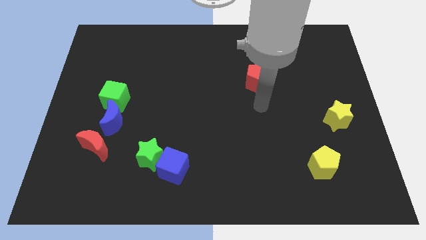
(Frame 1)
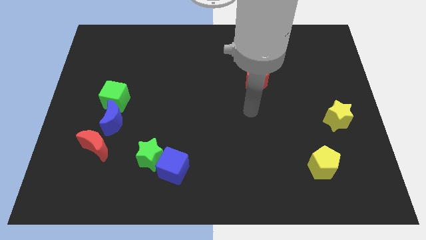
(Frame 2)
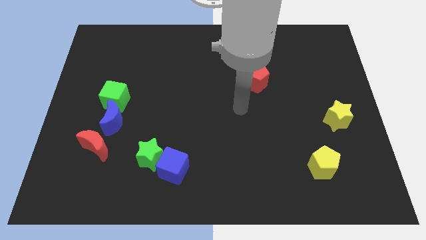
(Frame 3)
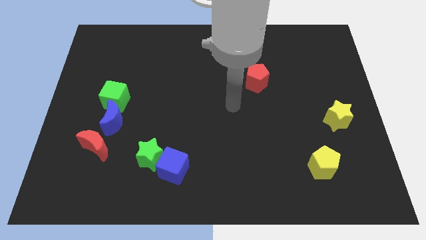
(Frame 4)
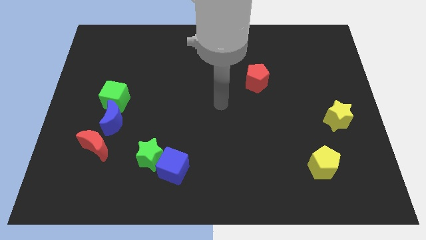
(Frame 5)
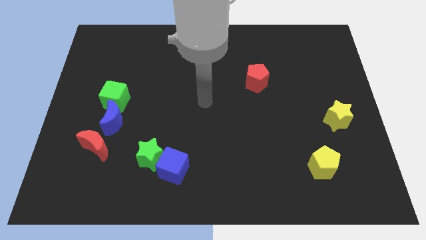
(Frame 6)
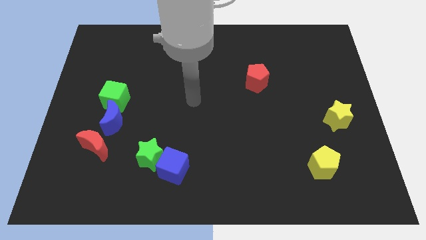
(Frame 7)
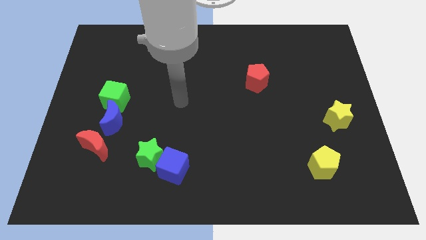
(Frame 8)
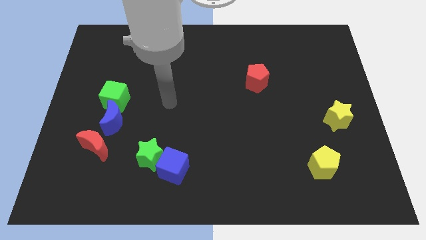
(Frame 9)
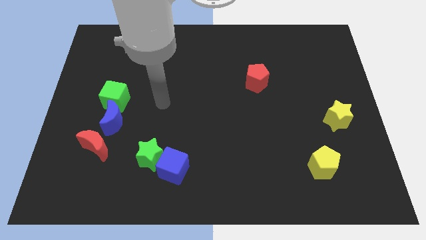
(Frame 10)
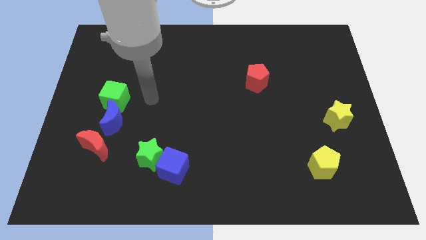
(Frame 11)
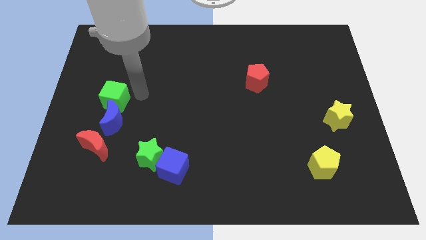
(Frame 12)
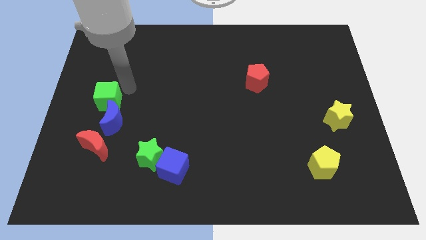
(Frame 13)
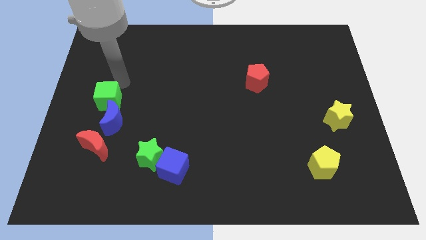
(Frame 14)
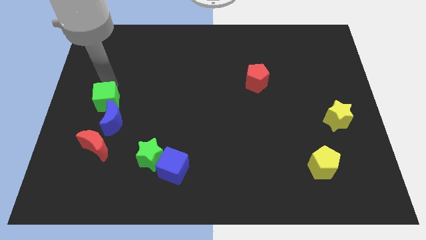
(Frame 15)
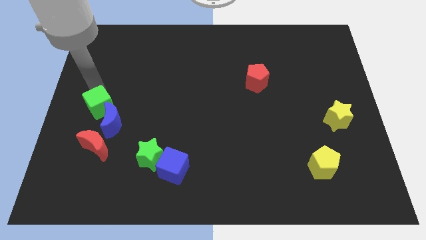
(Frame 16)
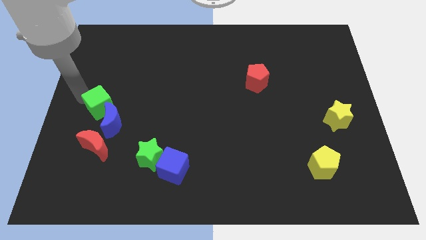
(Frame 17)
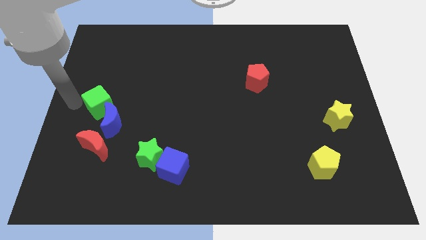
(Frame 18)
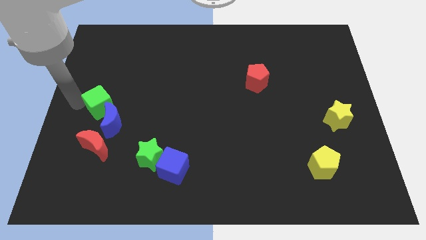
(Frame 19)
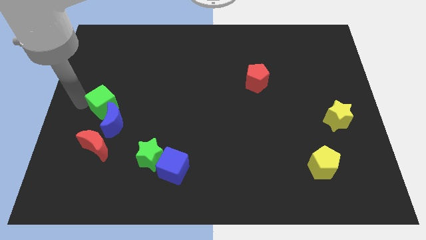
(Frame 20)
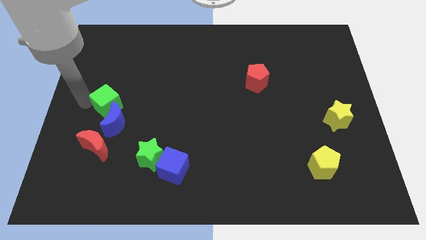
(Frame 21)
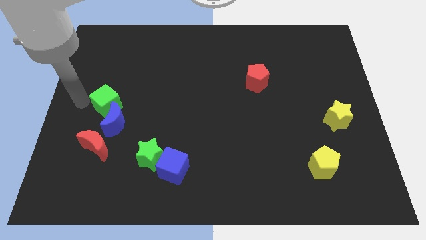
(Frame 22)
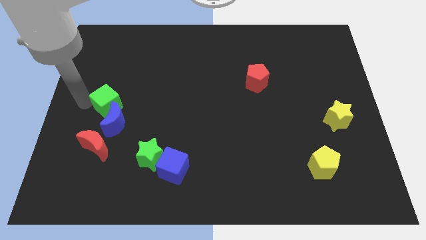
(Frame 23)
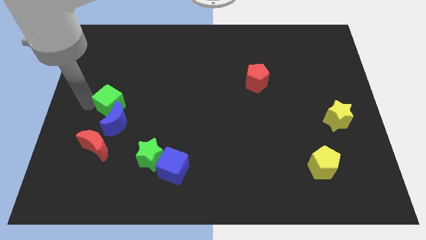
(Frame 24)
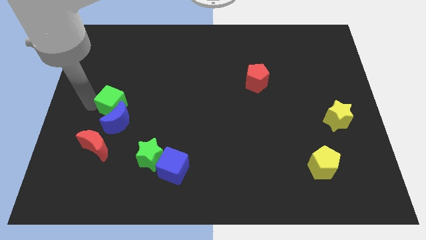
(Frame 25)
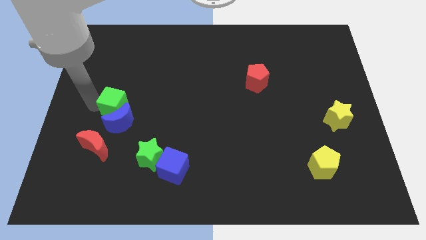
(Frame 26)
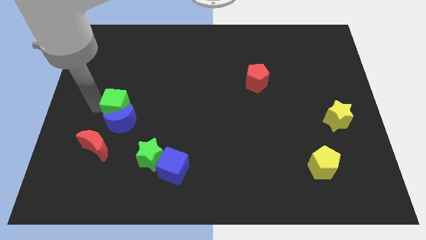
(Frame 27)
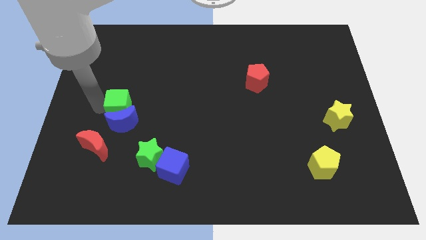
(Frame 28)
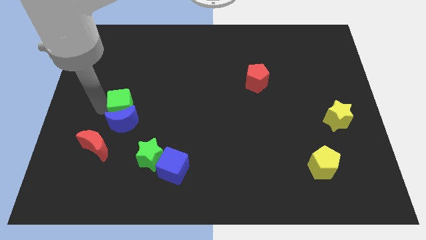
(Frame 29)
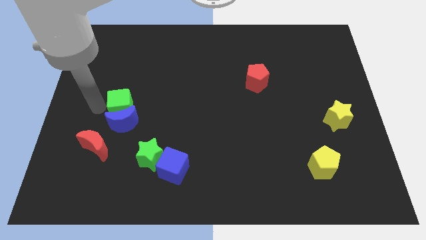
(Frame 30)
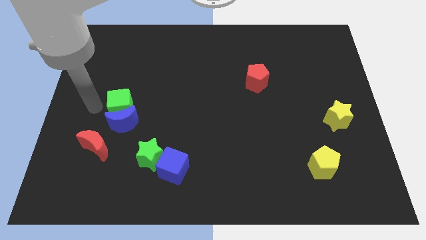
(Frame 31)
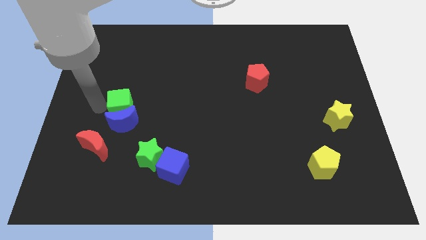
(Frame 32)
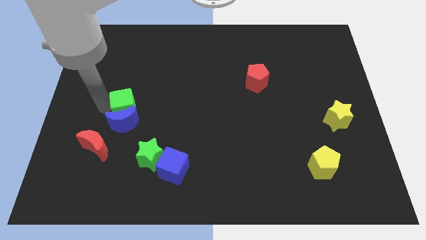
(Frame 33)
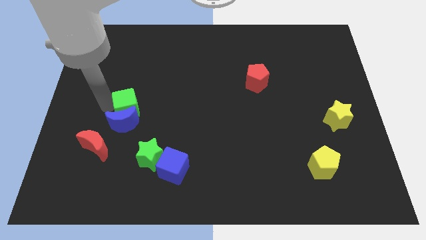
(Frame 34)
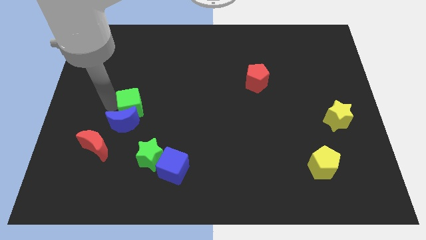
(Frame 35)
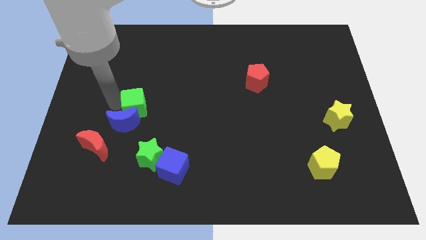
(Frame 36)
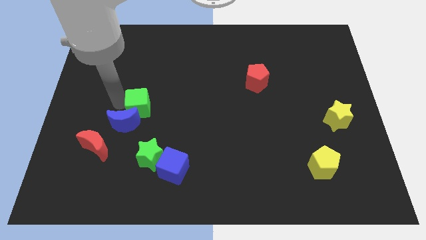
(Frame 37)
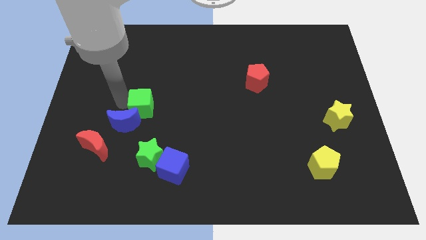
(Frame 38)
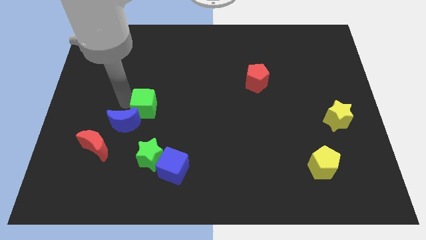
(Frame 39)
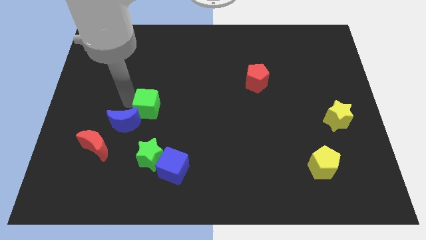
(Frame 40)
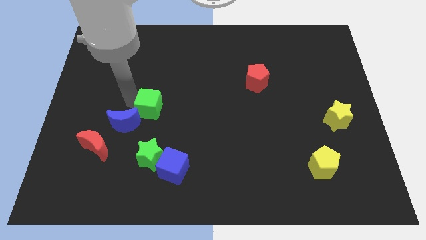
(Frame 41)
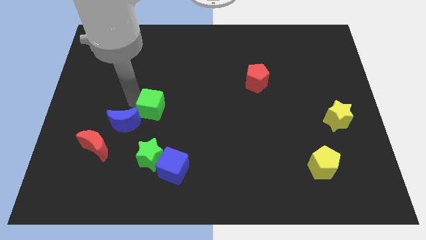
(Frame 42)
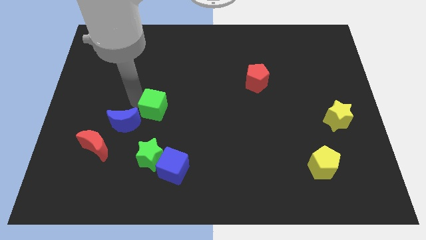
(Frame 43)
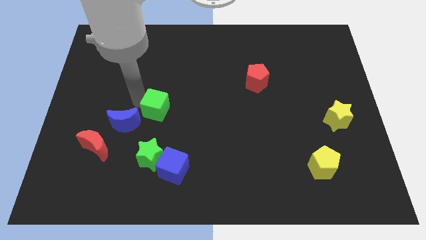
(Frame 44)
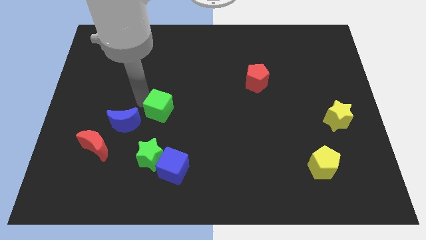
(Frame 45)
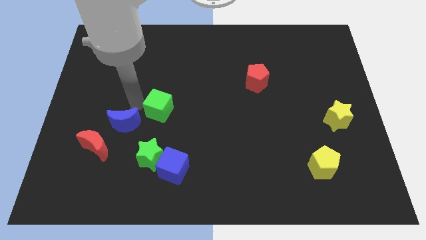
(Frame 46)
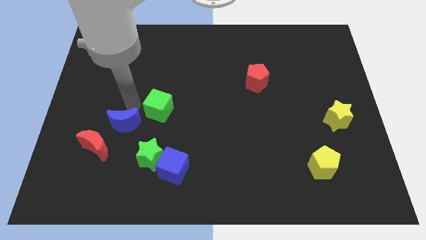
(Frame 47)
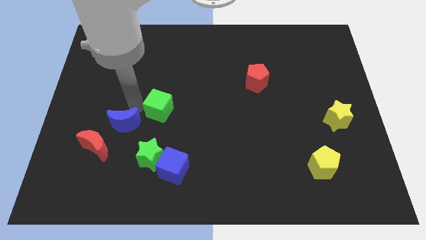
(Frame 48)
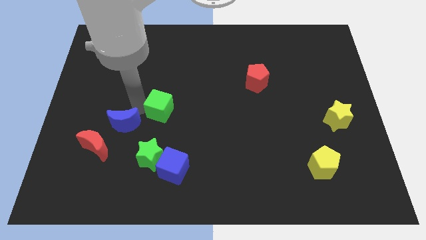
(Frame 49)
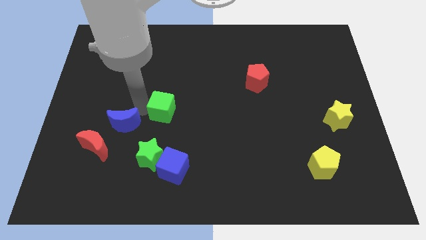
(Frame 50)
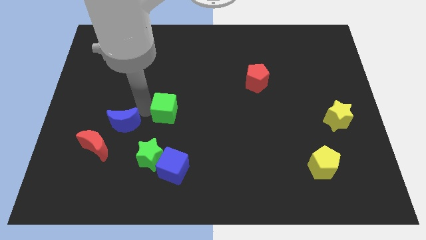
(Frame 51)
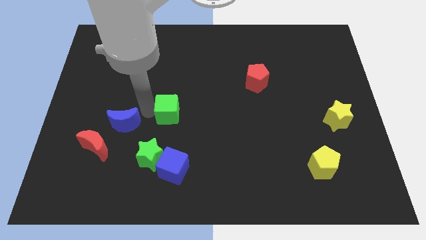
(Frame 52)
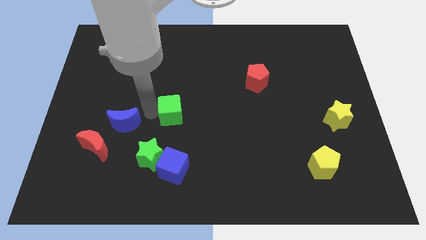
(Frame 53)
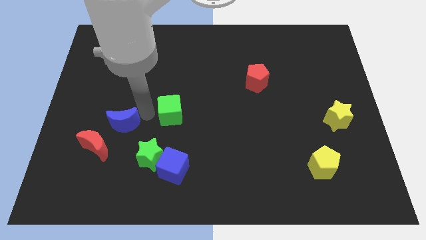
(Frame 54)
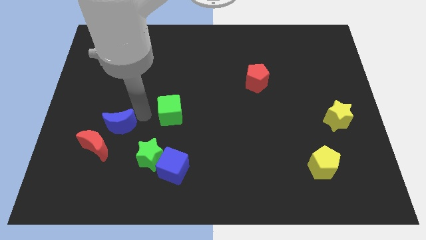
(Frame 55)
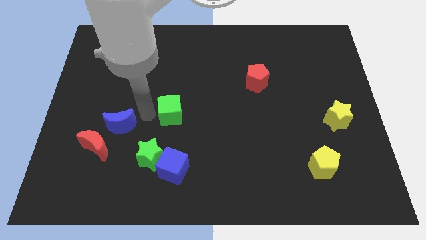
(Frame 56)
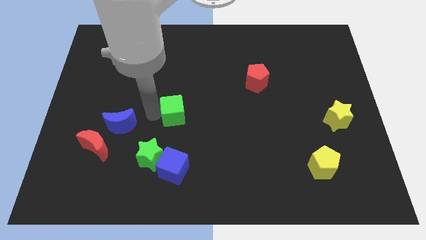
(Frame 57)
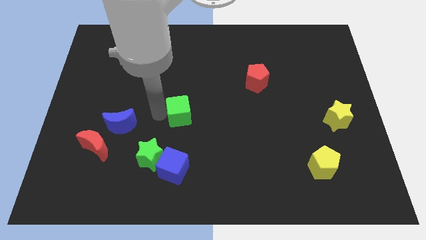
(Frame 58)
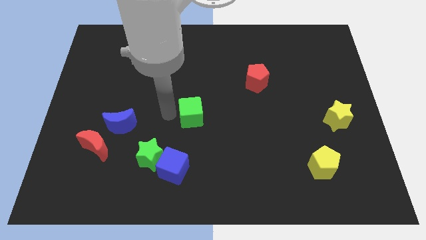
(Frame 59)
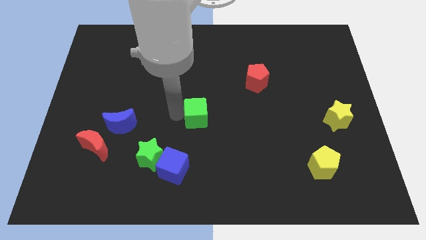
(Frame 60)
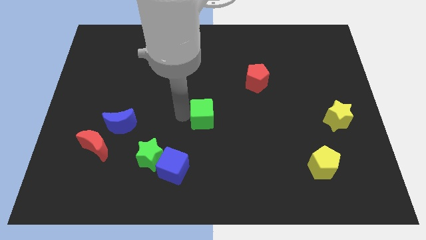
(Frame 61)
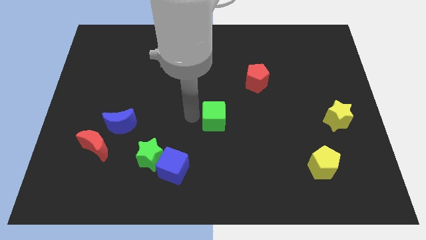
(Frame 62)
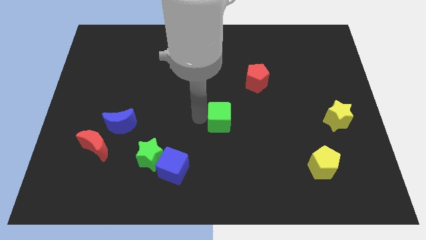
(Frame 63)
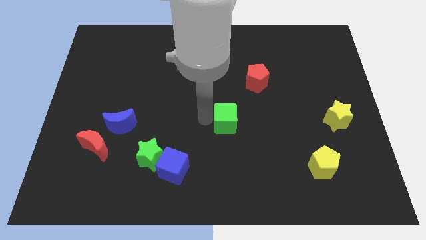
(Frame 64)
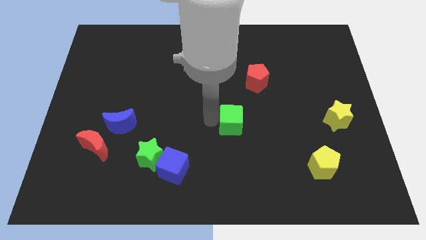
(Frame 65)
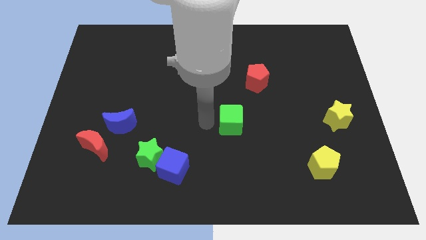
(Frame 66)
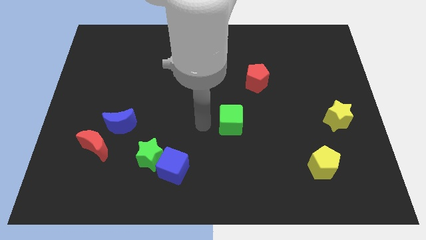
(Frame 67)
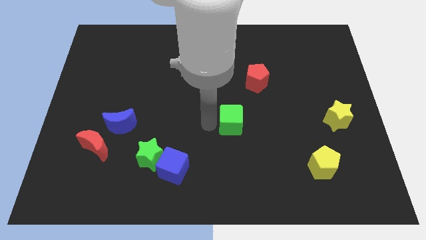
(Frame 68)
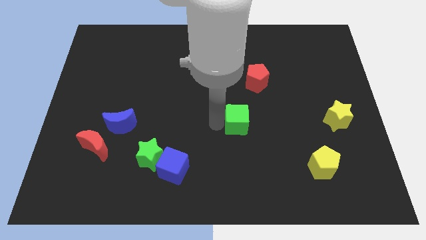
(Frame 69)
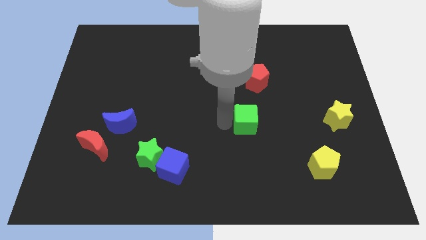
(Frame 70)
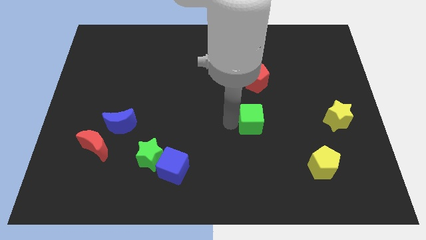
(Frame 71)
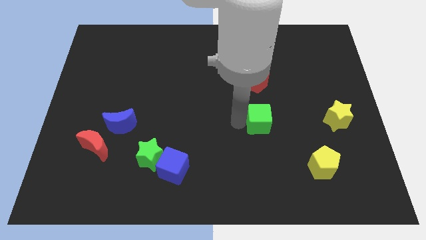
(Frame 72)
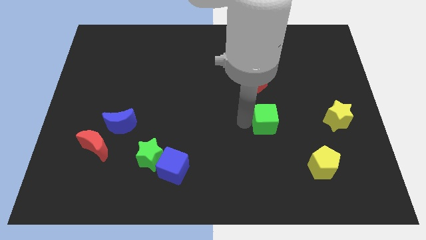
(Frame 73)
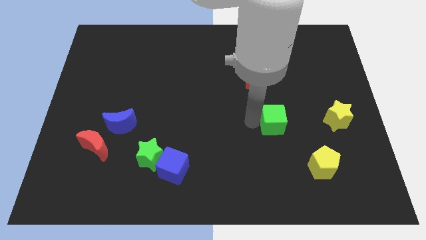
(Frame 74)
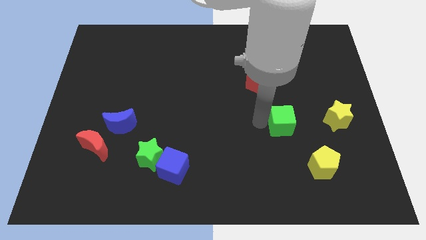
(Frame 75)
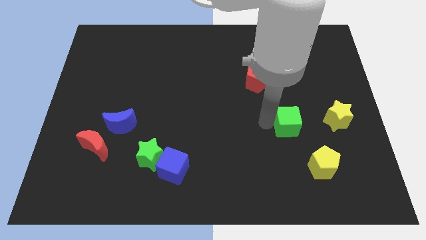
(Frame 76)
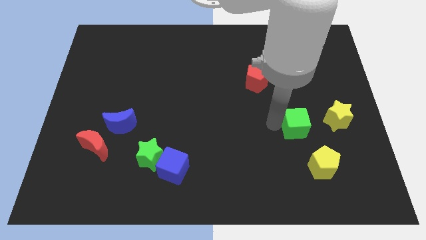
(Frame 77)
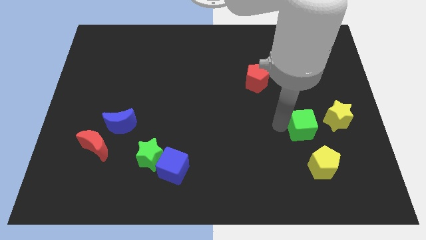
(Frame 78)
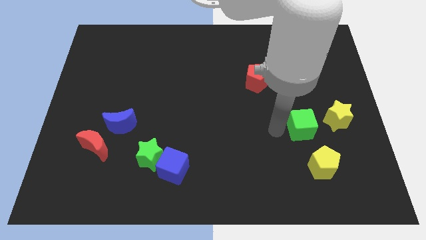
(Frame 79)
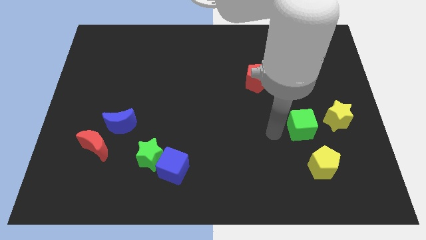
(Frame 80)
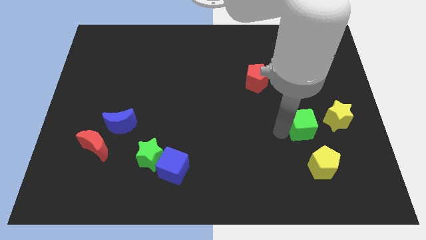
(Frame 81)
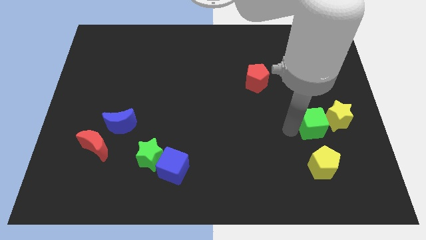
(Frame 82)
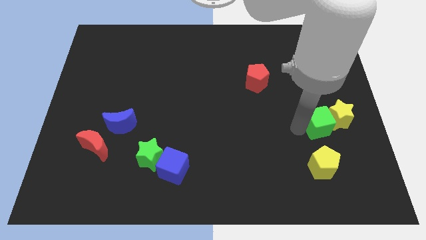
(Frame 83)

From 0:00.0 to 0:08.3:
move the green cube to the yellow star
